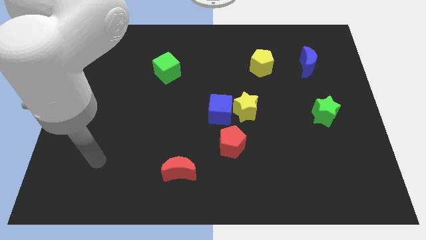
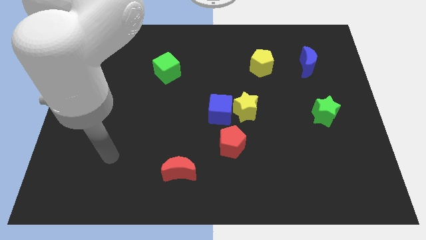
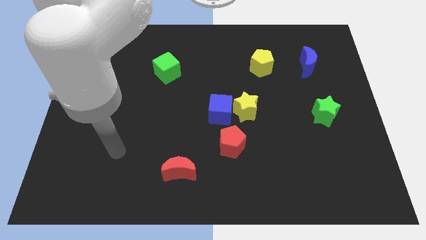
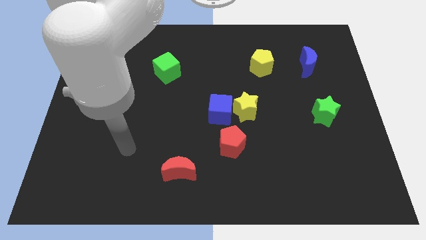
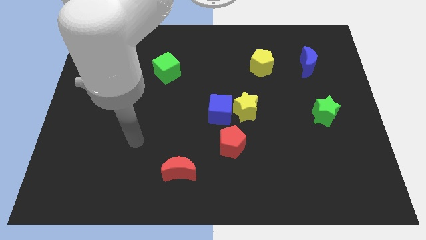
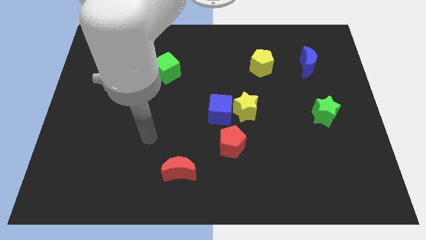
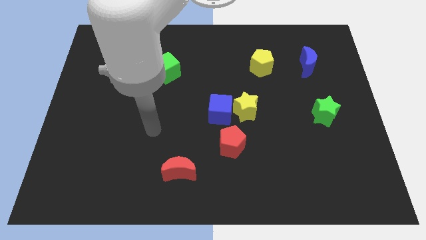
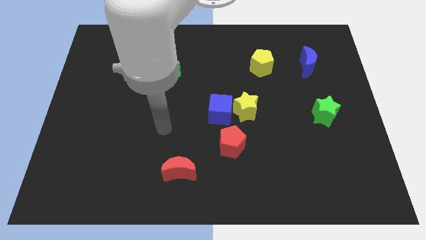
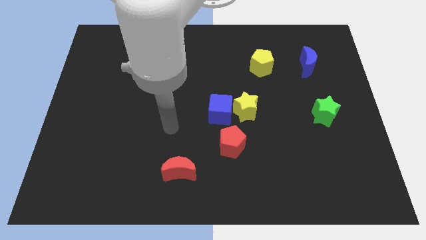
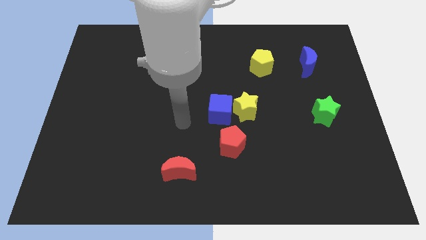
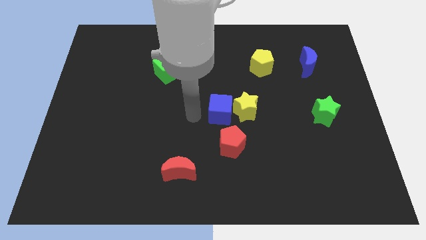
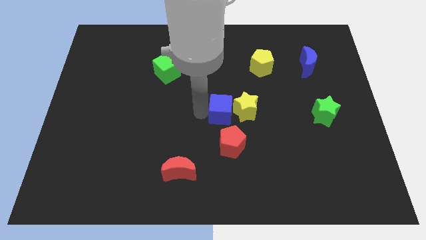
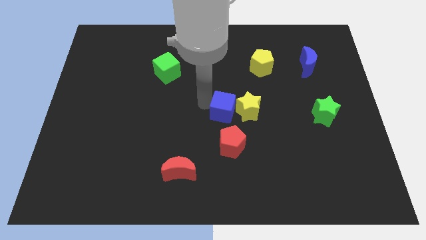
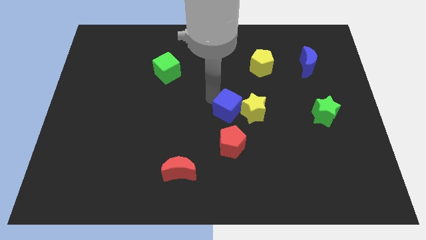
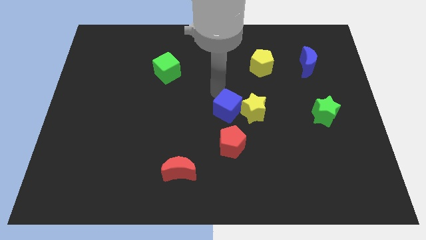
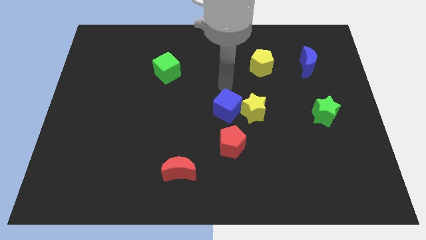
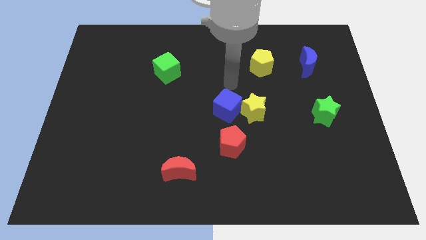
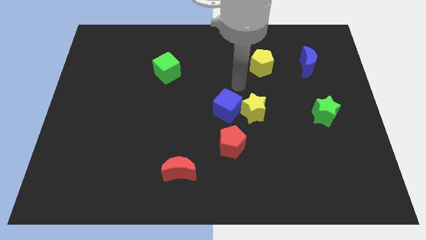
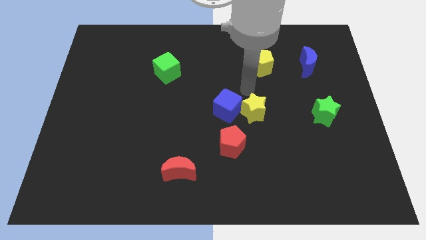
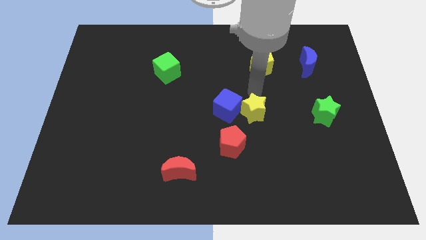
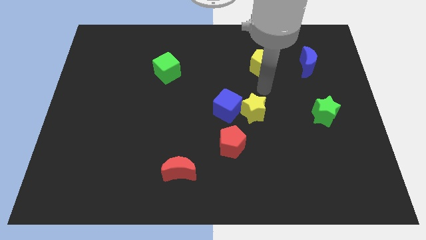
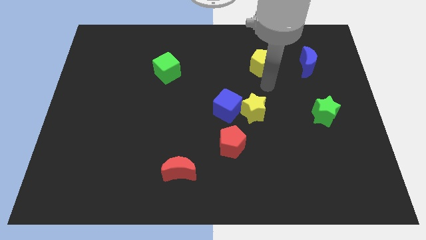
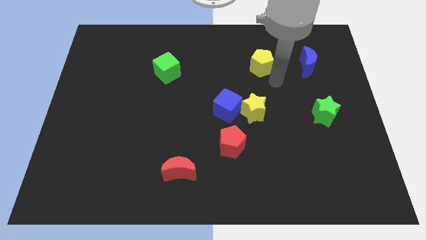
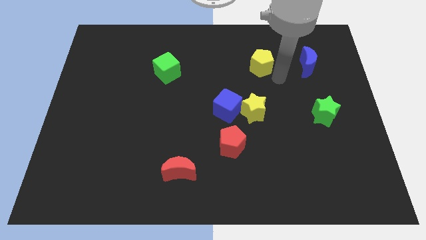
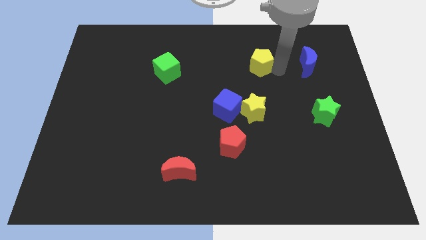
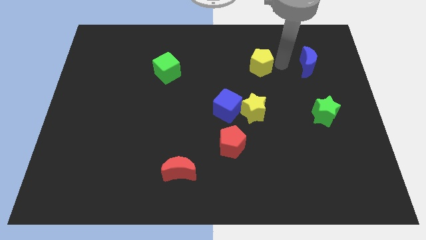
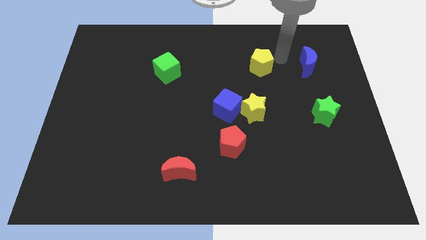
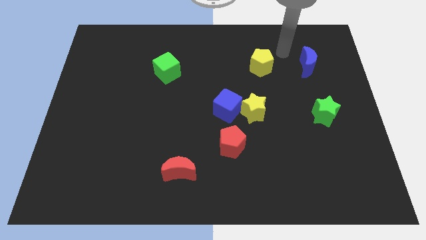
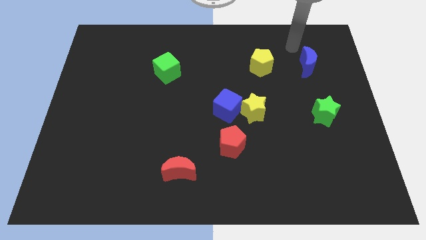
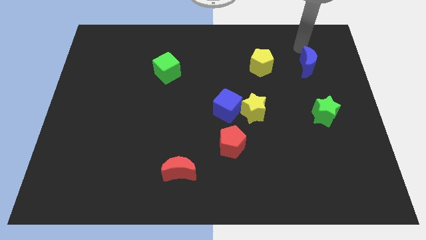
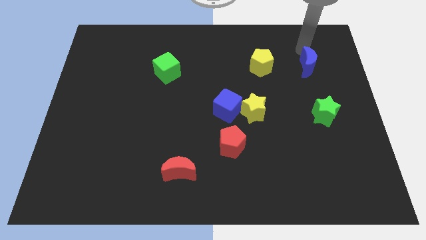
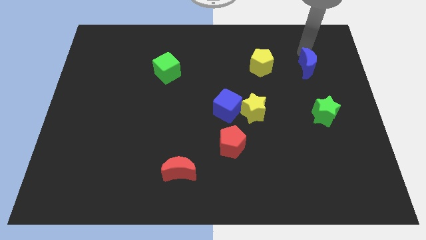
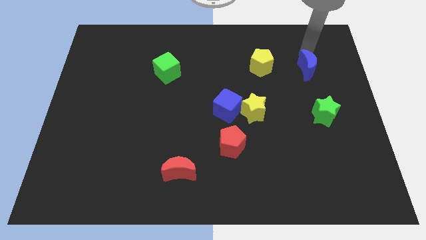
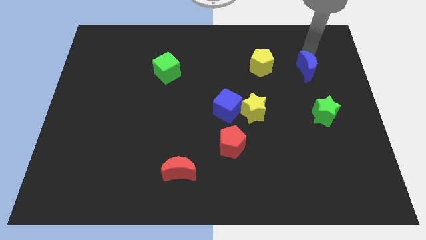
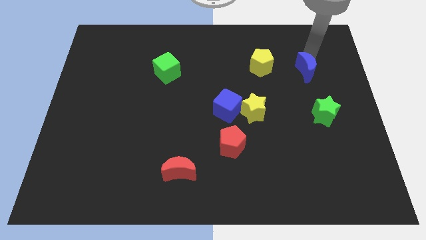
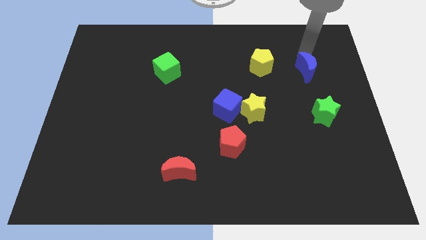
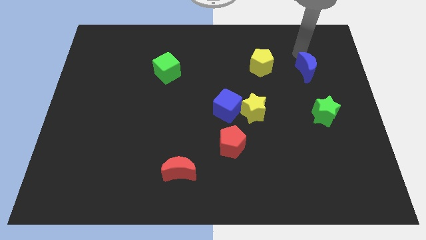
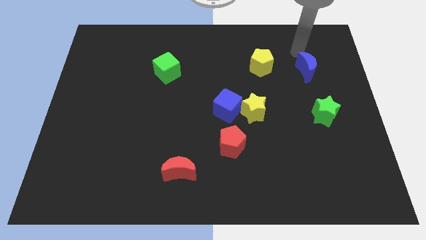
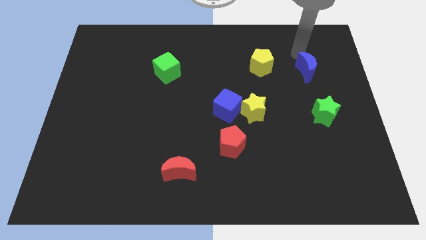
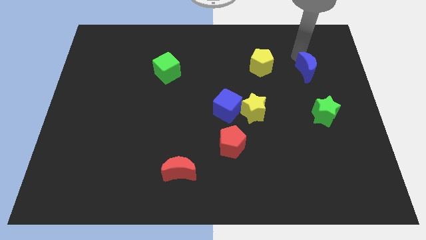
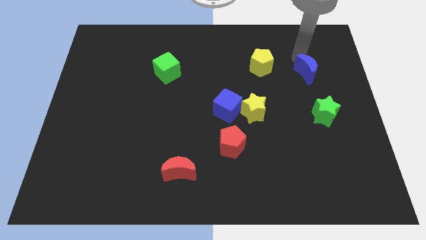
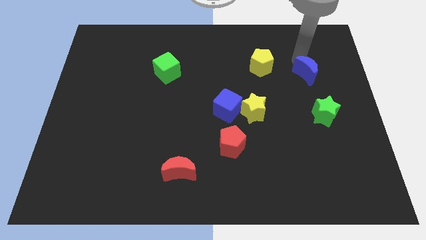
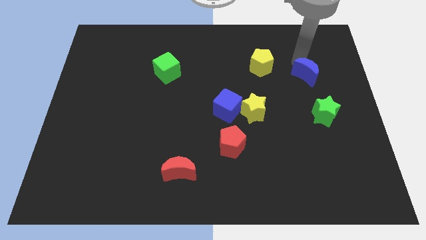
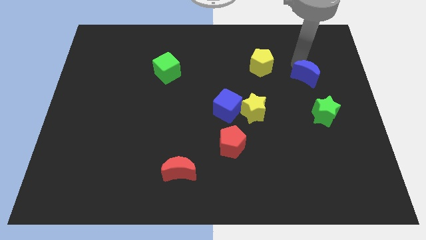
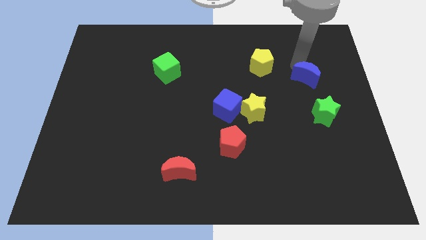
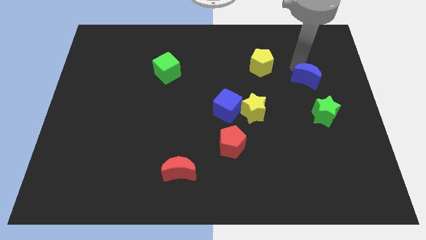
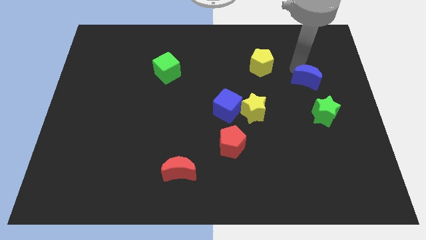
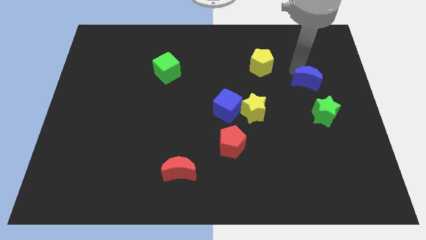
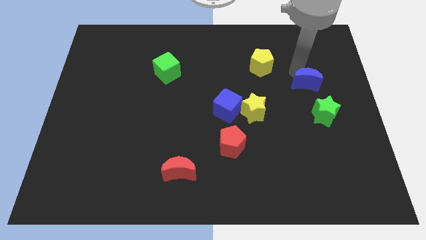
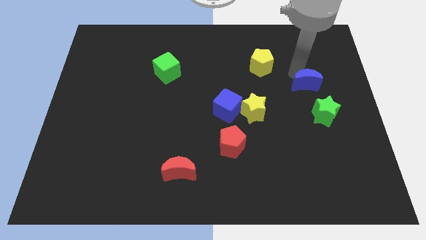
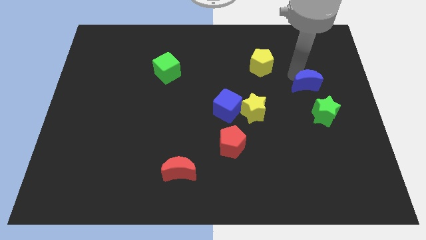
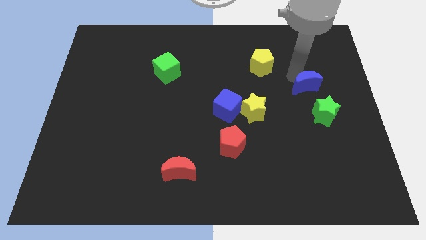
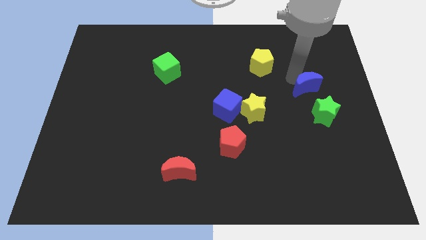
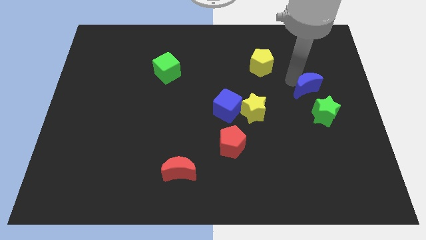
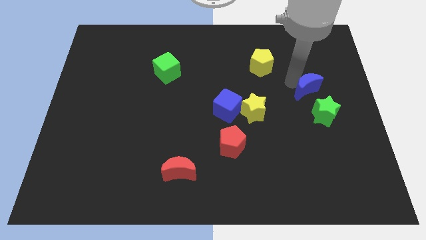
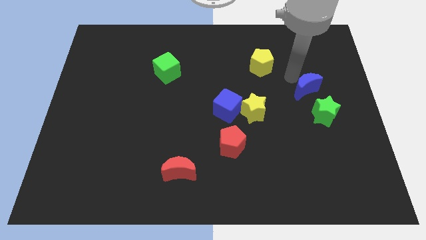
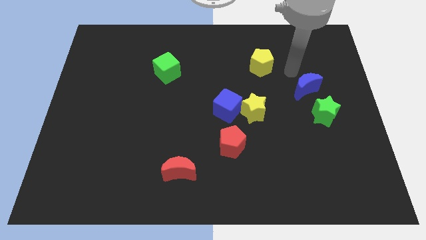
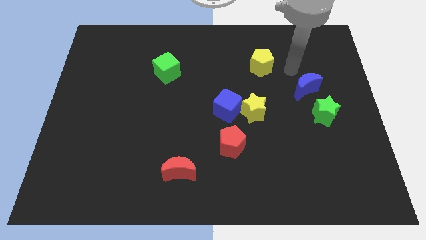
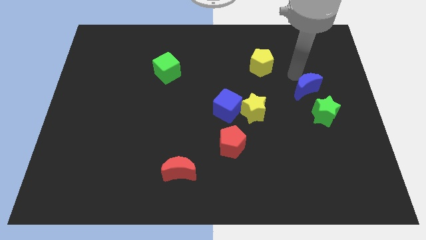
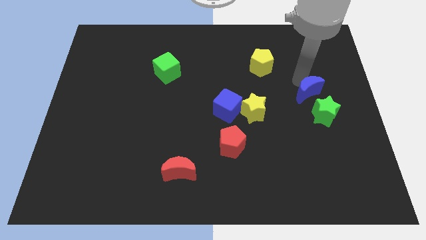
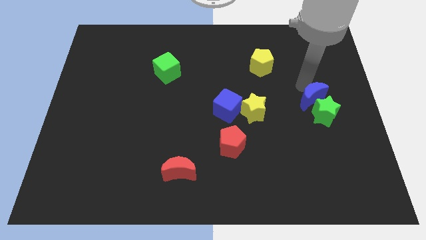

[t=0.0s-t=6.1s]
slide the blue moon next to the green star
